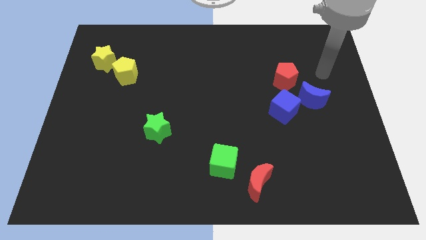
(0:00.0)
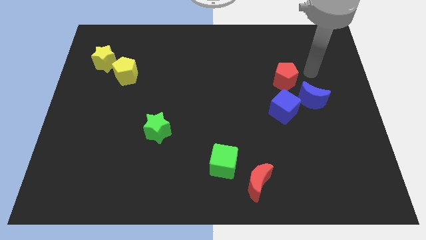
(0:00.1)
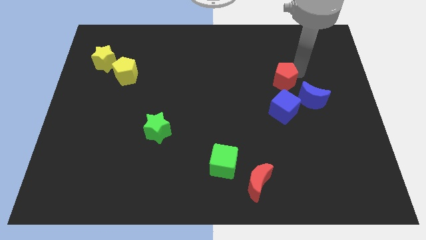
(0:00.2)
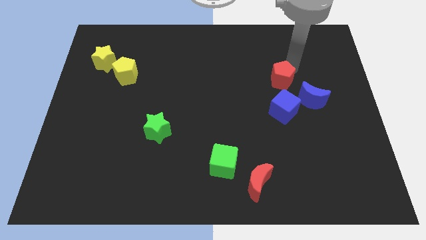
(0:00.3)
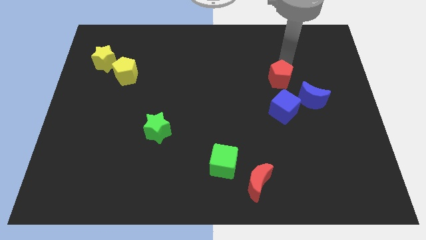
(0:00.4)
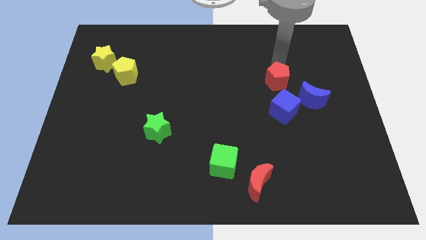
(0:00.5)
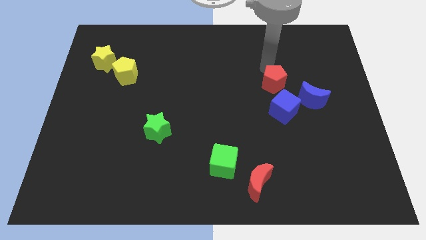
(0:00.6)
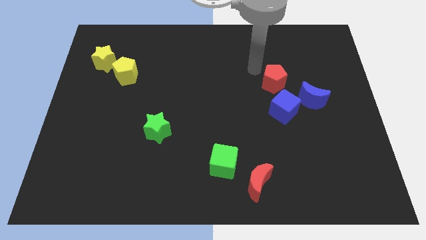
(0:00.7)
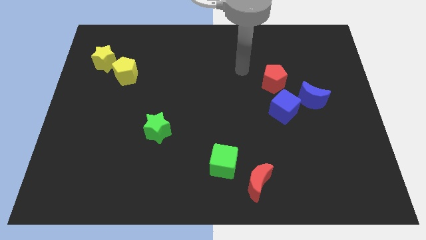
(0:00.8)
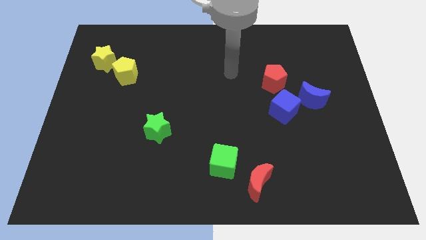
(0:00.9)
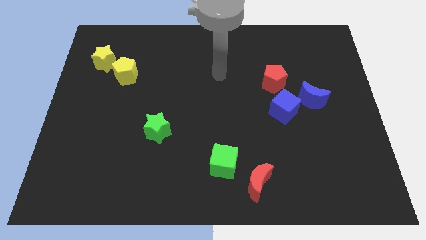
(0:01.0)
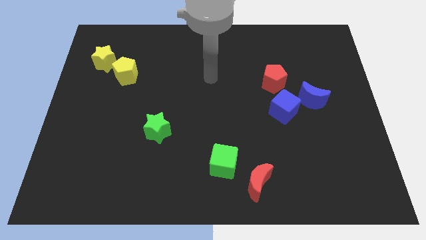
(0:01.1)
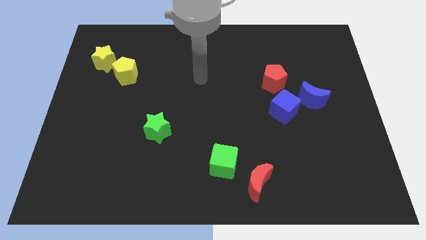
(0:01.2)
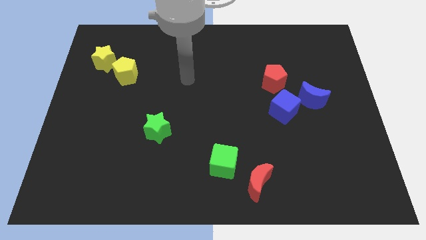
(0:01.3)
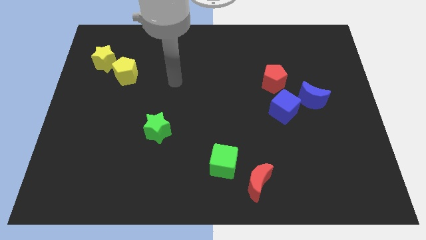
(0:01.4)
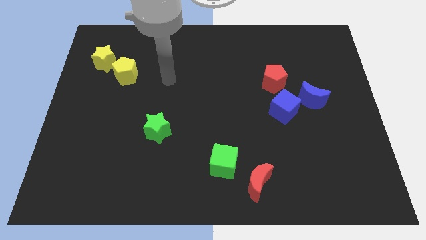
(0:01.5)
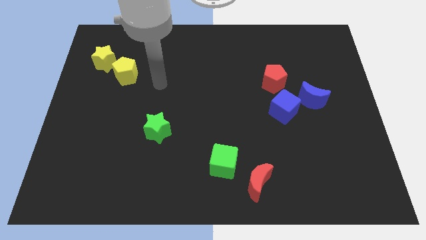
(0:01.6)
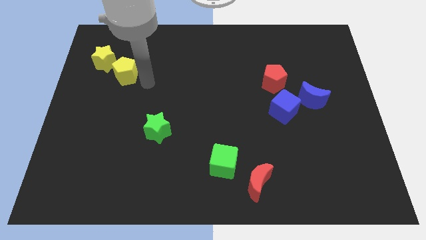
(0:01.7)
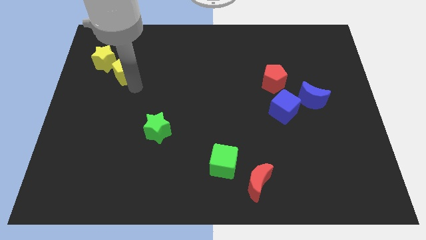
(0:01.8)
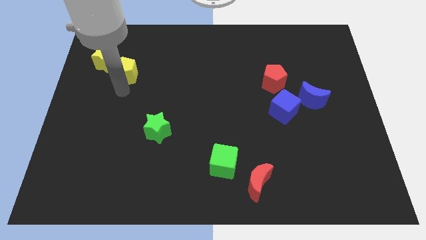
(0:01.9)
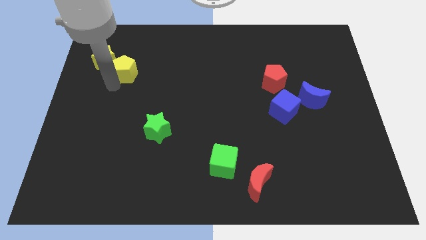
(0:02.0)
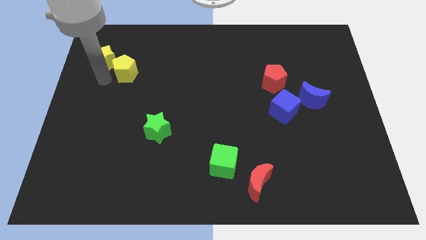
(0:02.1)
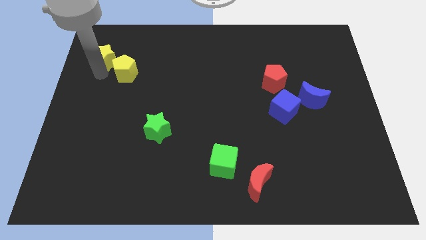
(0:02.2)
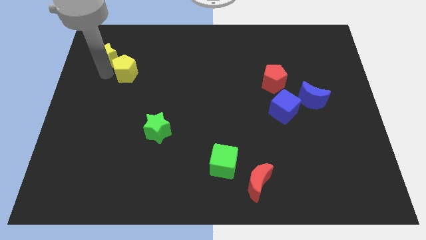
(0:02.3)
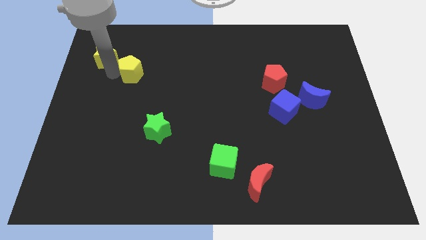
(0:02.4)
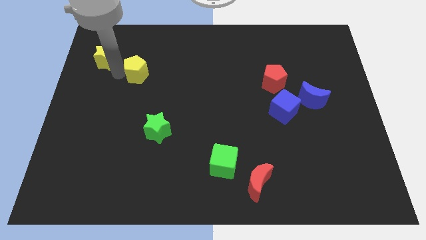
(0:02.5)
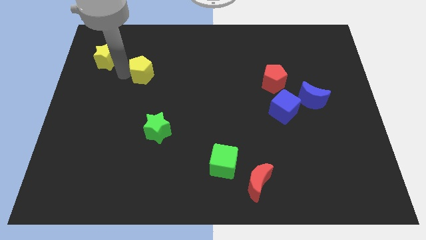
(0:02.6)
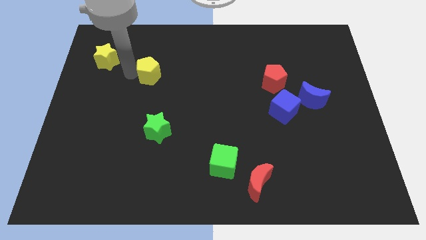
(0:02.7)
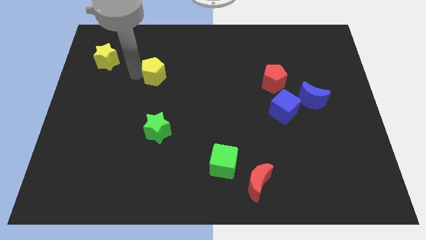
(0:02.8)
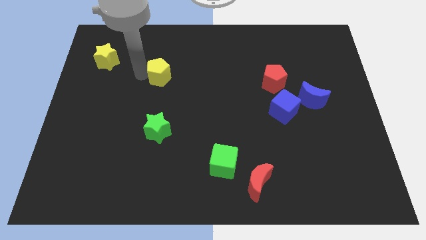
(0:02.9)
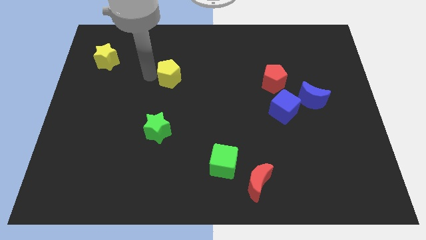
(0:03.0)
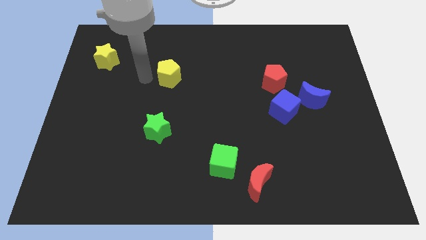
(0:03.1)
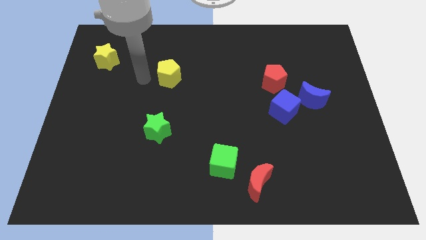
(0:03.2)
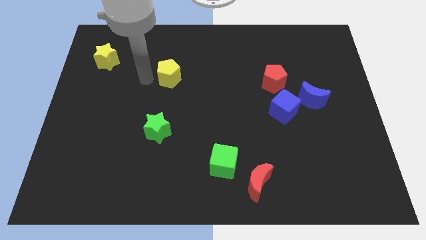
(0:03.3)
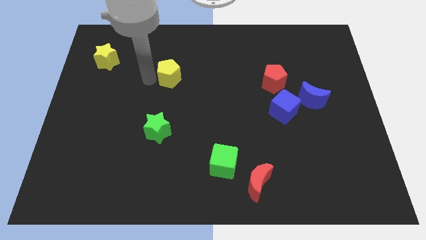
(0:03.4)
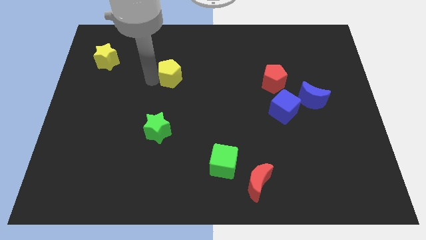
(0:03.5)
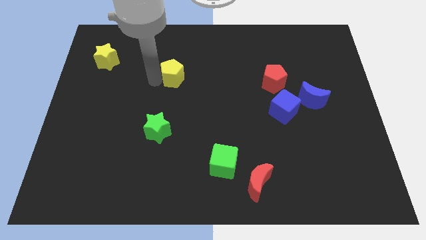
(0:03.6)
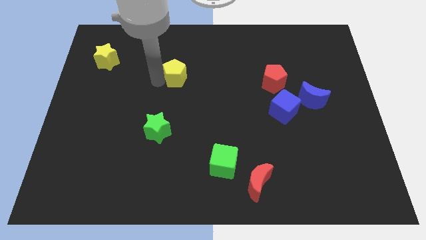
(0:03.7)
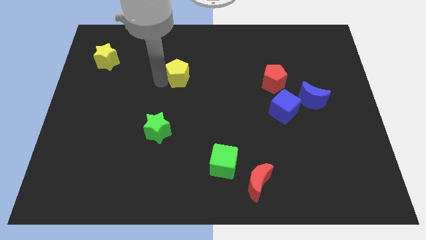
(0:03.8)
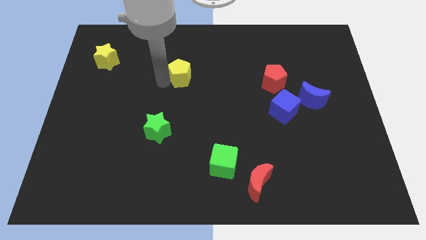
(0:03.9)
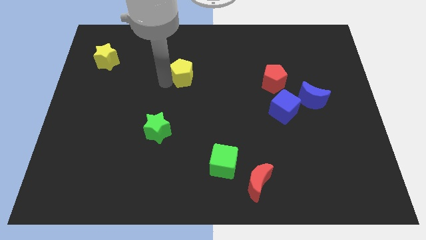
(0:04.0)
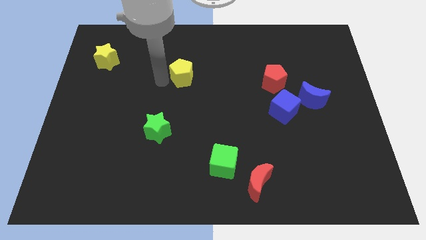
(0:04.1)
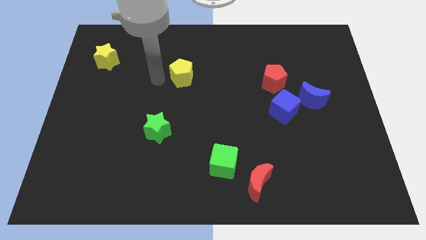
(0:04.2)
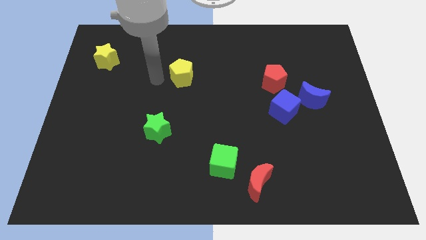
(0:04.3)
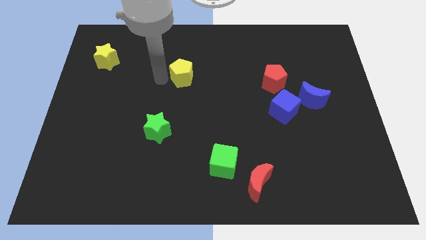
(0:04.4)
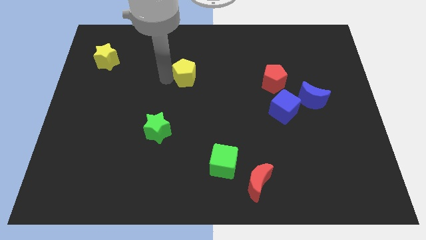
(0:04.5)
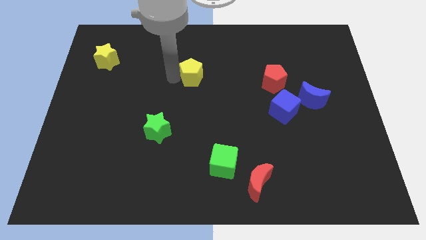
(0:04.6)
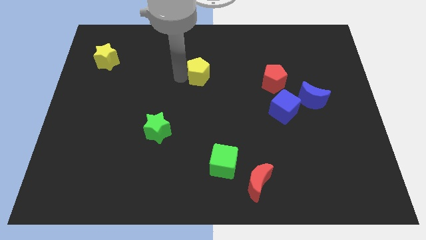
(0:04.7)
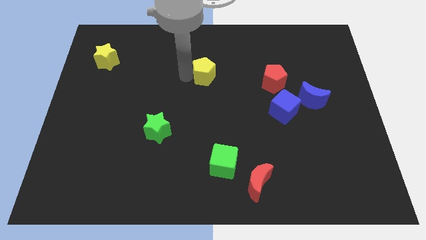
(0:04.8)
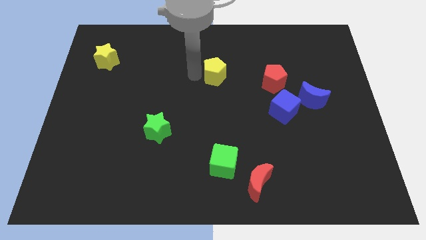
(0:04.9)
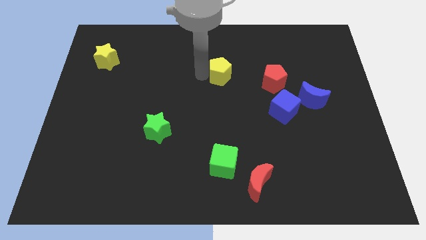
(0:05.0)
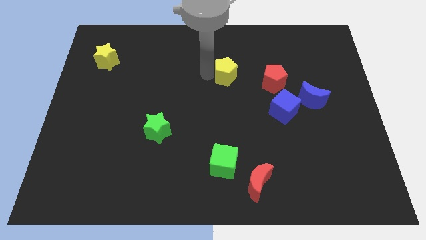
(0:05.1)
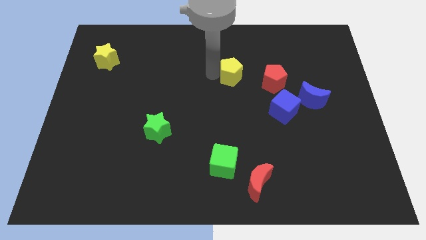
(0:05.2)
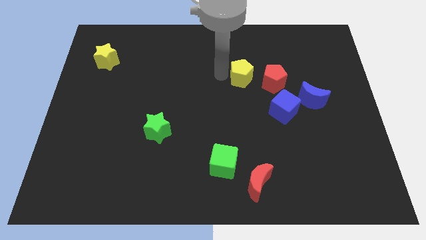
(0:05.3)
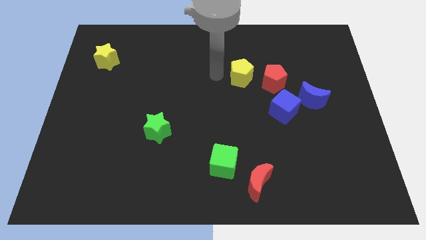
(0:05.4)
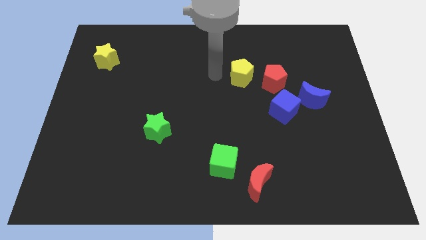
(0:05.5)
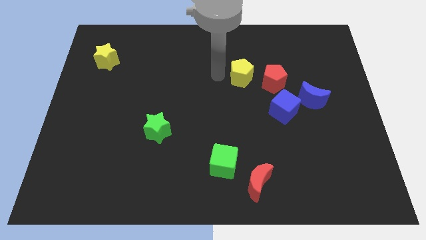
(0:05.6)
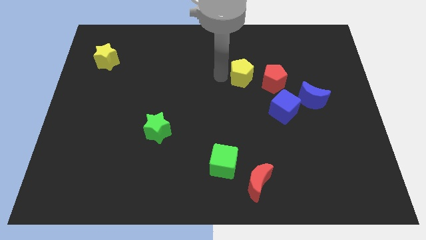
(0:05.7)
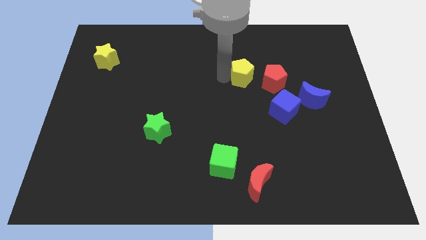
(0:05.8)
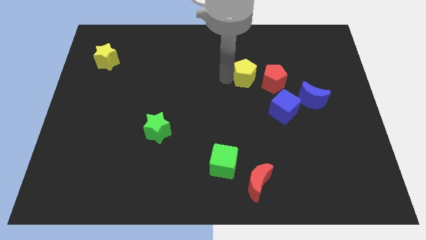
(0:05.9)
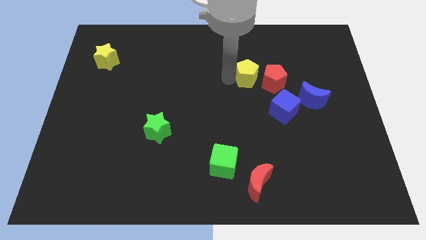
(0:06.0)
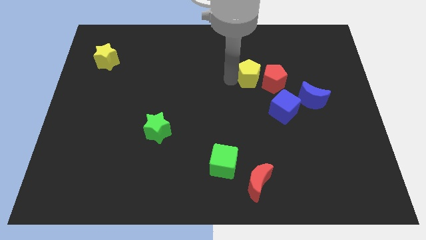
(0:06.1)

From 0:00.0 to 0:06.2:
move the yellow pentagon to the red pentagon

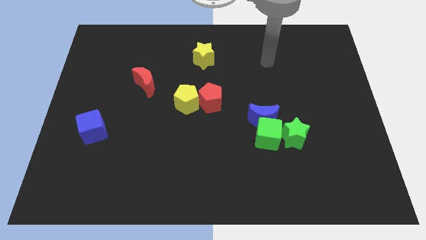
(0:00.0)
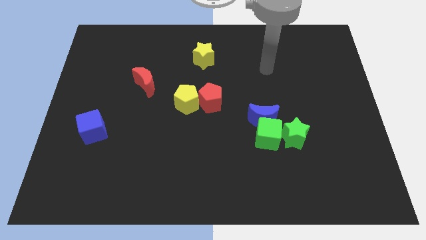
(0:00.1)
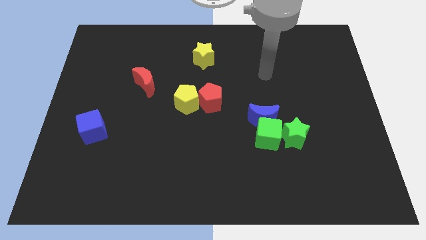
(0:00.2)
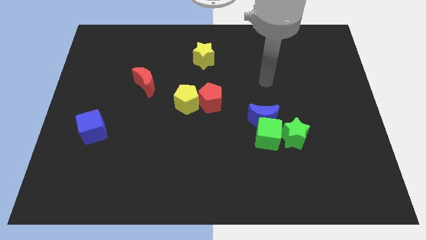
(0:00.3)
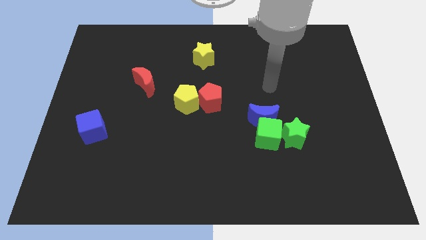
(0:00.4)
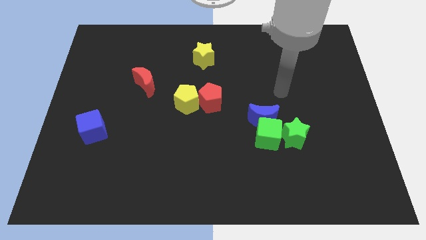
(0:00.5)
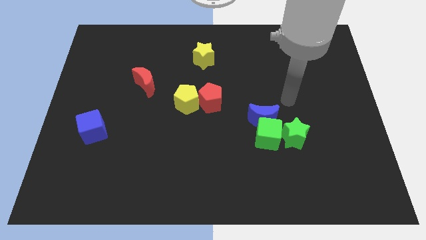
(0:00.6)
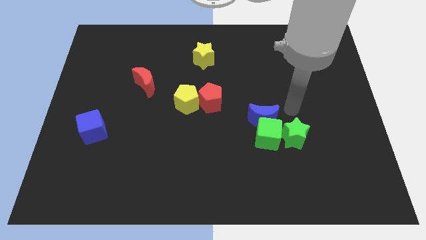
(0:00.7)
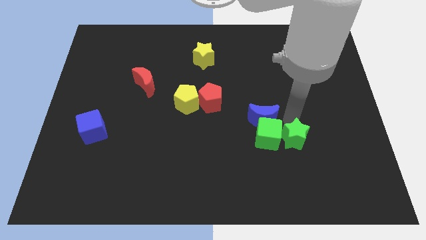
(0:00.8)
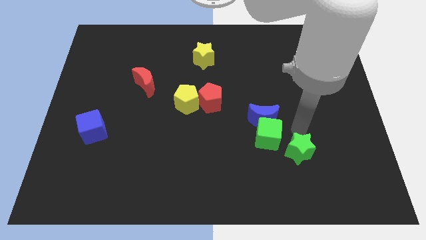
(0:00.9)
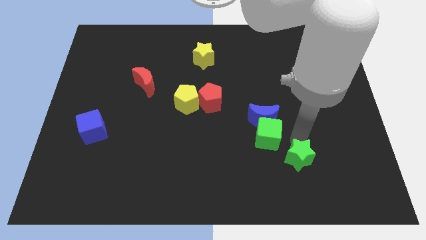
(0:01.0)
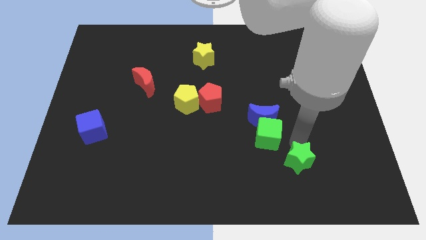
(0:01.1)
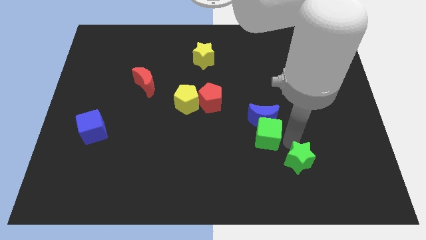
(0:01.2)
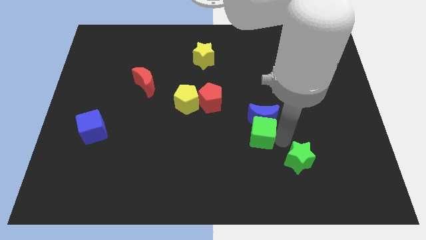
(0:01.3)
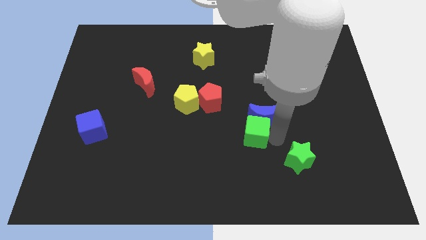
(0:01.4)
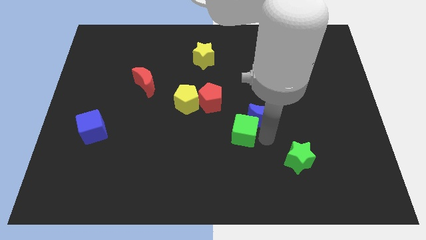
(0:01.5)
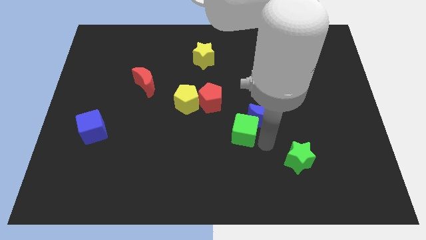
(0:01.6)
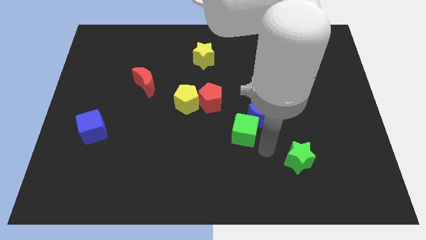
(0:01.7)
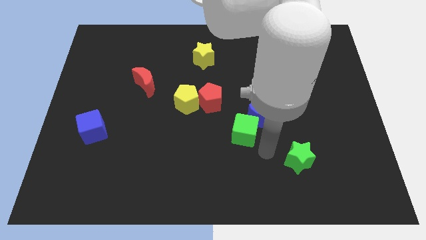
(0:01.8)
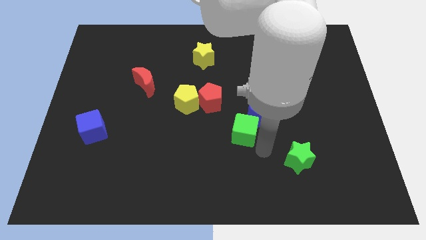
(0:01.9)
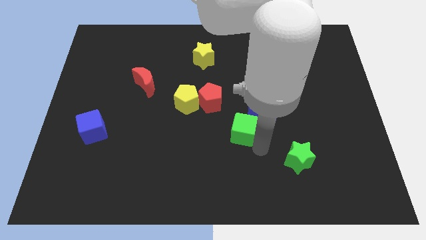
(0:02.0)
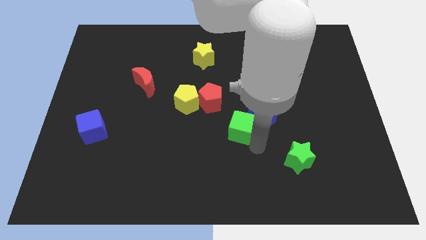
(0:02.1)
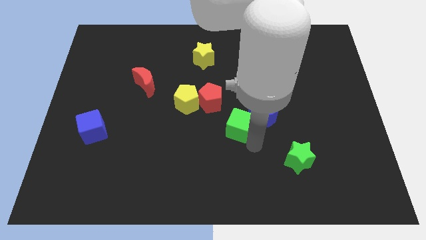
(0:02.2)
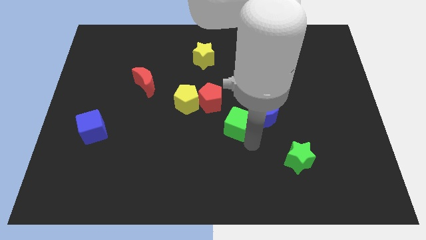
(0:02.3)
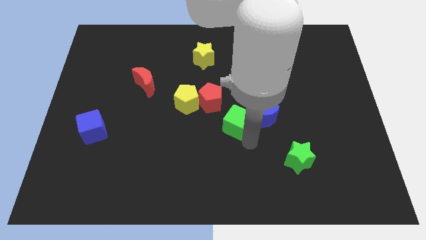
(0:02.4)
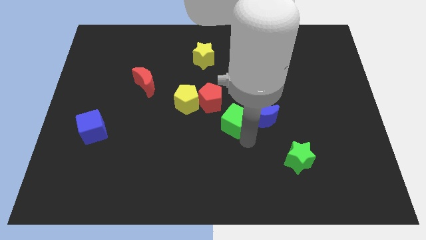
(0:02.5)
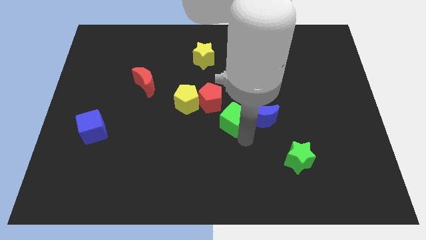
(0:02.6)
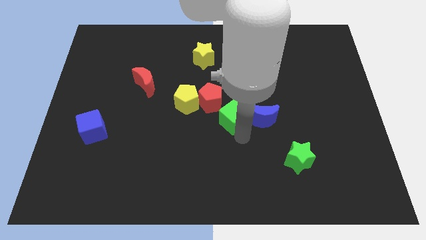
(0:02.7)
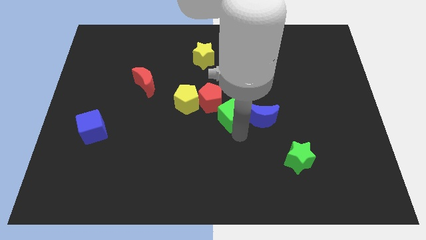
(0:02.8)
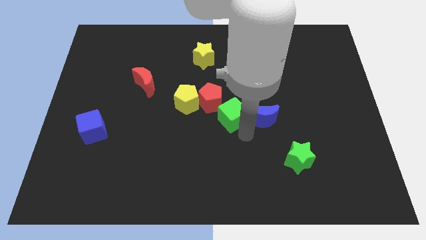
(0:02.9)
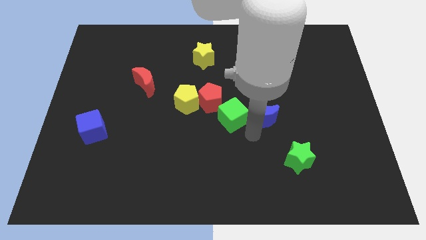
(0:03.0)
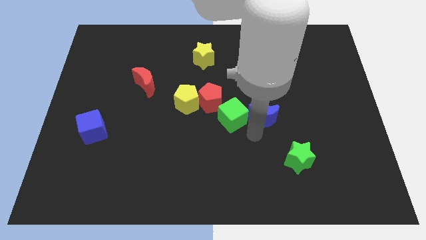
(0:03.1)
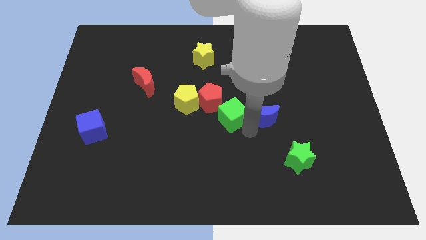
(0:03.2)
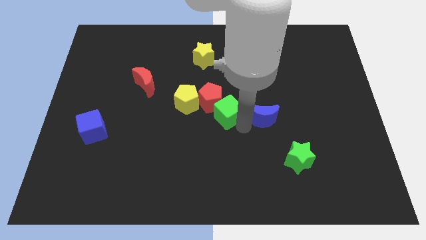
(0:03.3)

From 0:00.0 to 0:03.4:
put the green cube to the red pentagon
